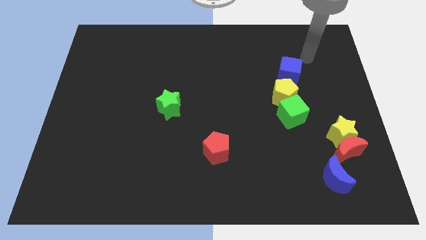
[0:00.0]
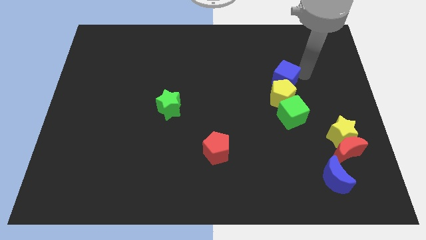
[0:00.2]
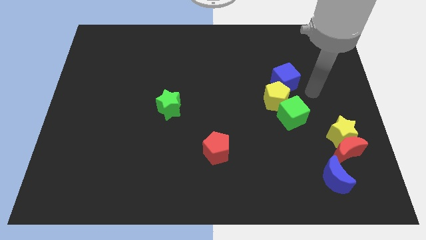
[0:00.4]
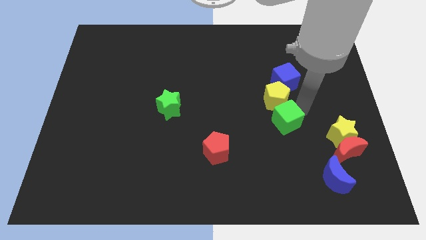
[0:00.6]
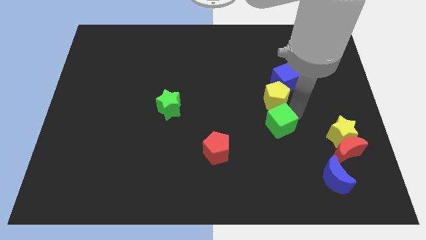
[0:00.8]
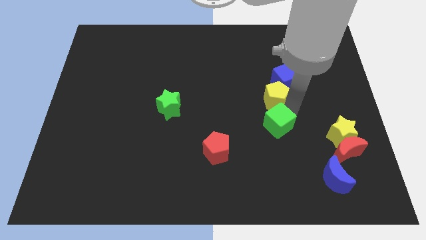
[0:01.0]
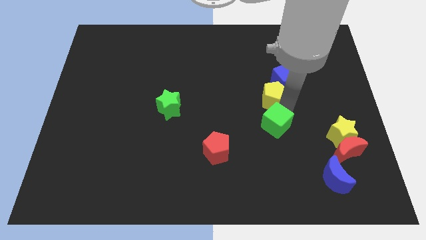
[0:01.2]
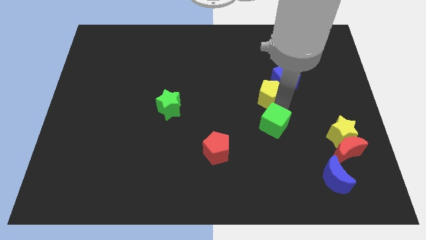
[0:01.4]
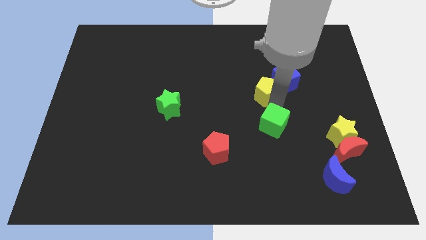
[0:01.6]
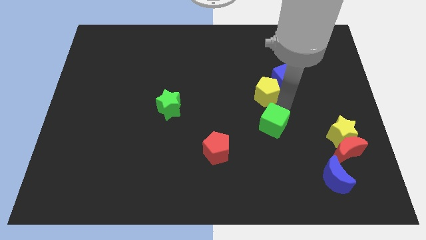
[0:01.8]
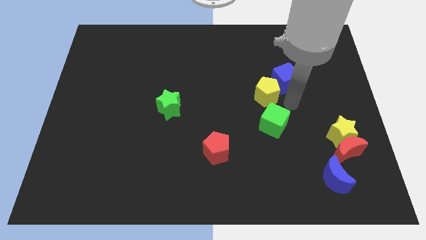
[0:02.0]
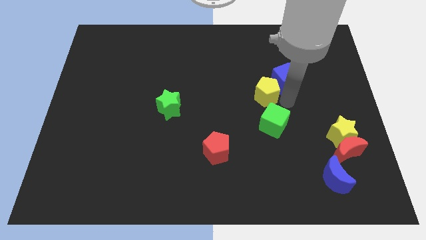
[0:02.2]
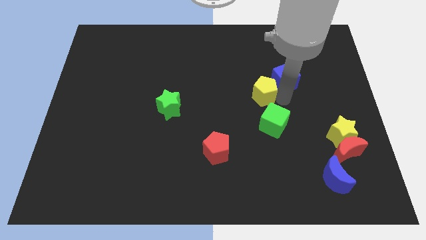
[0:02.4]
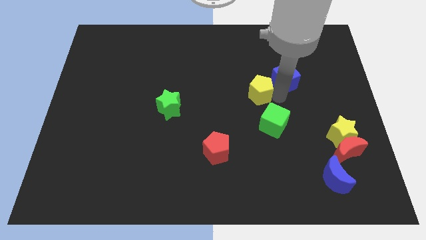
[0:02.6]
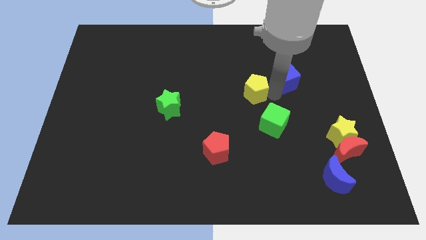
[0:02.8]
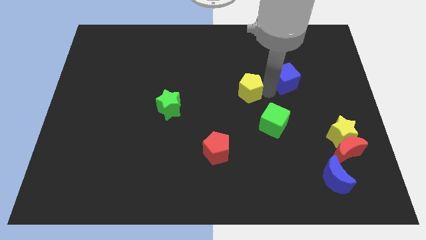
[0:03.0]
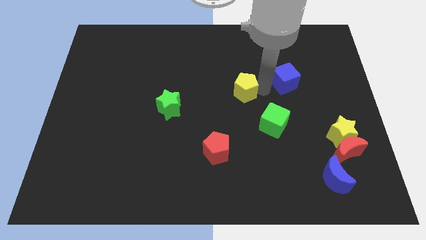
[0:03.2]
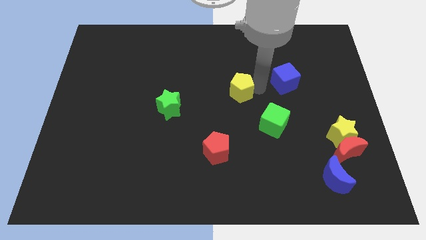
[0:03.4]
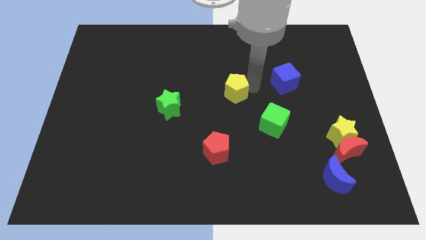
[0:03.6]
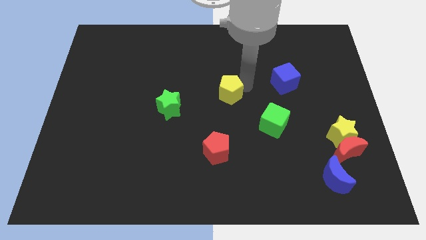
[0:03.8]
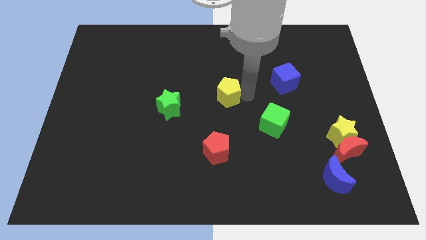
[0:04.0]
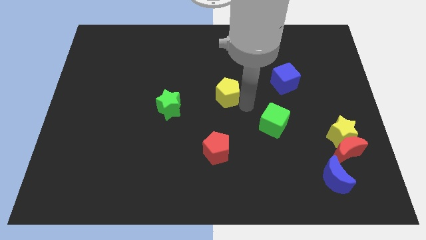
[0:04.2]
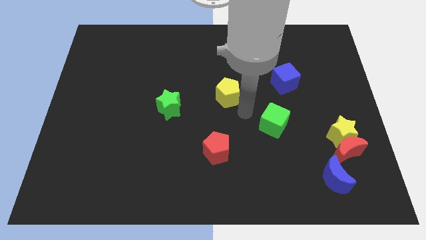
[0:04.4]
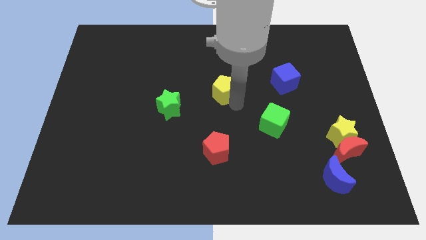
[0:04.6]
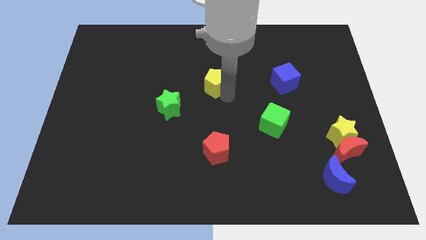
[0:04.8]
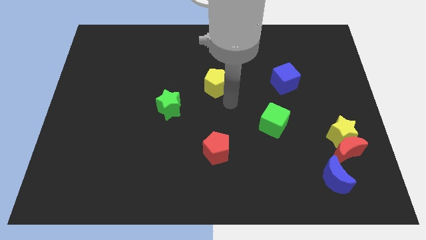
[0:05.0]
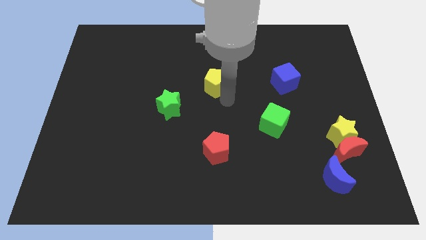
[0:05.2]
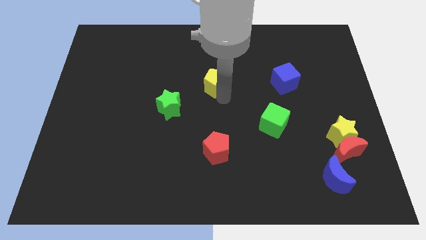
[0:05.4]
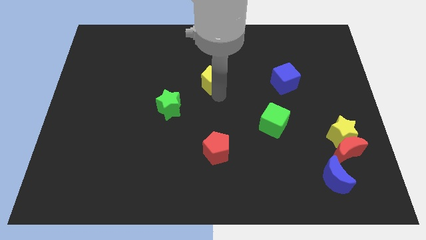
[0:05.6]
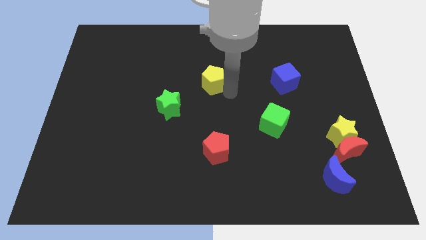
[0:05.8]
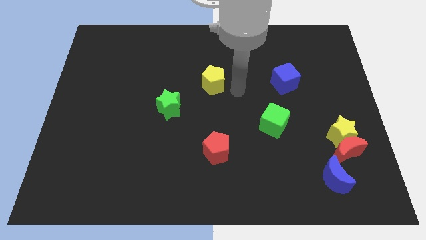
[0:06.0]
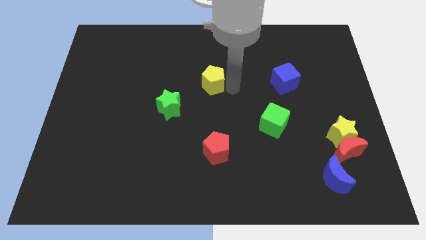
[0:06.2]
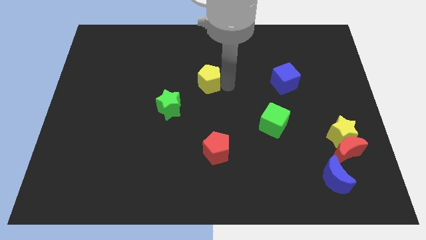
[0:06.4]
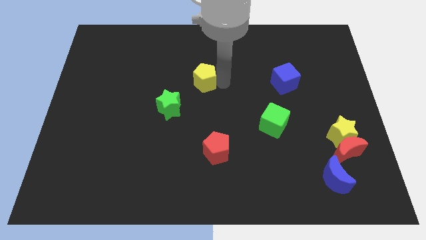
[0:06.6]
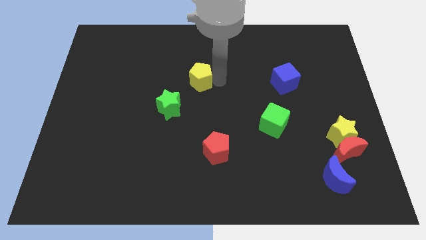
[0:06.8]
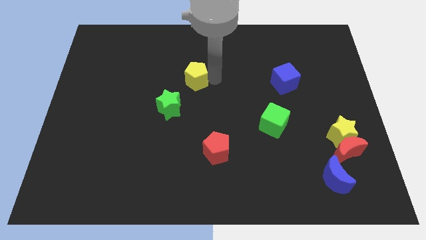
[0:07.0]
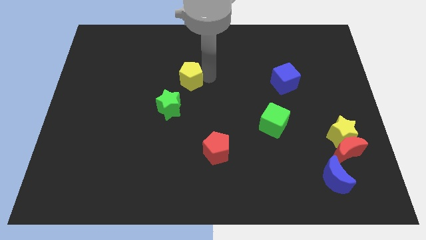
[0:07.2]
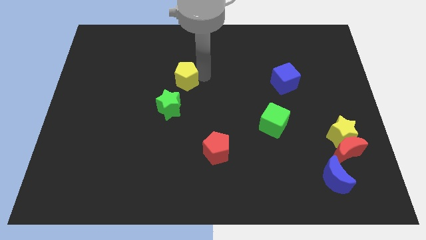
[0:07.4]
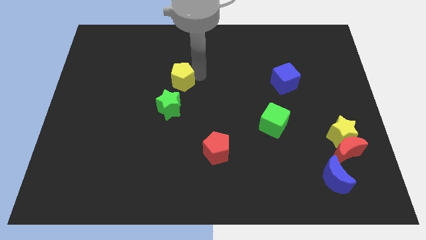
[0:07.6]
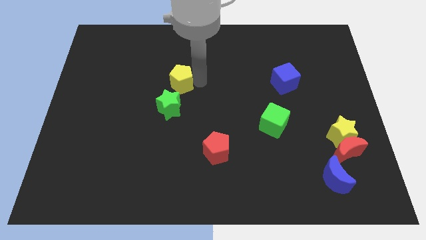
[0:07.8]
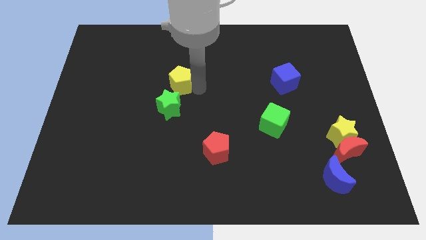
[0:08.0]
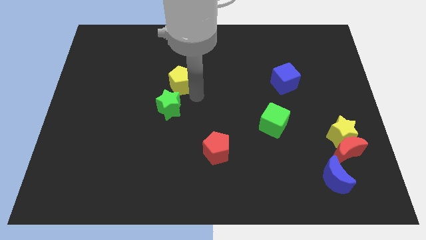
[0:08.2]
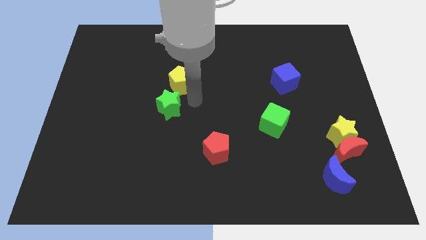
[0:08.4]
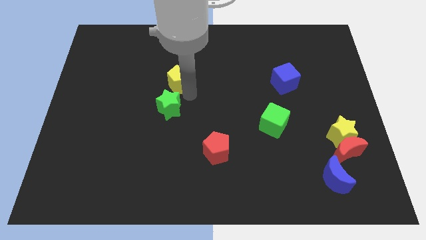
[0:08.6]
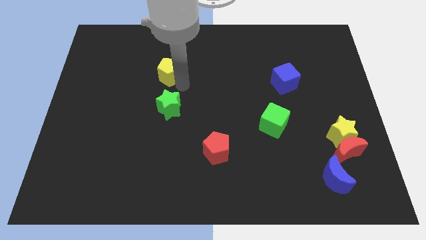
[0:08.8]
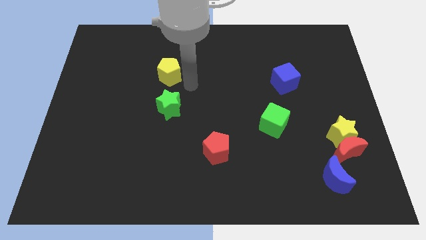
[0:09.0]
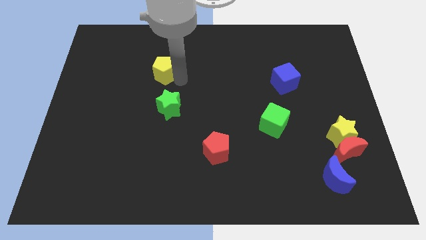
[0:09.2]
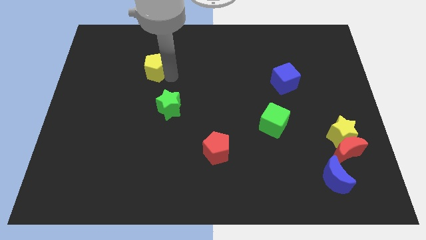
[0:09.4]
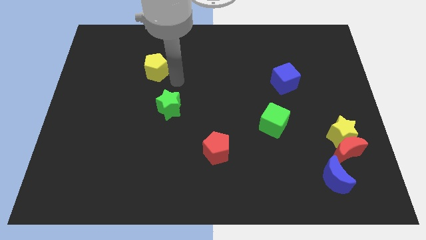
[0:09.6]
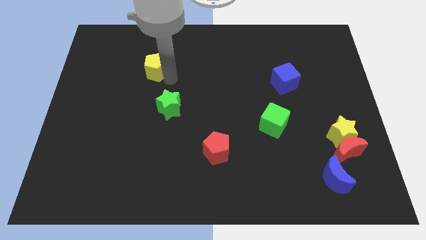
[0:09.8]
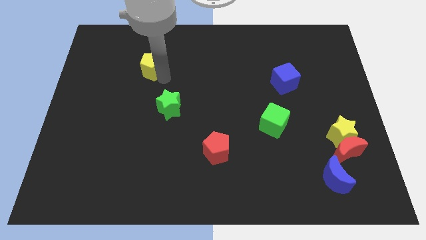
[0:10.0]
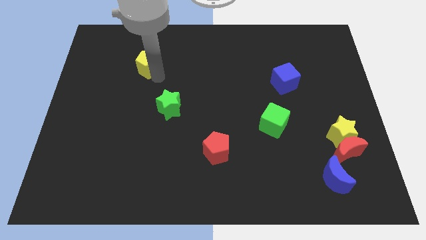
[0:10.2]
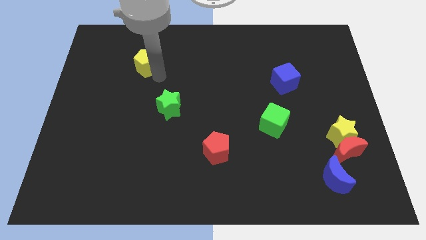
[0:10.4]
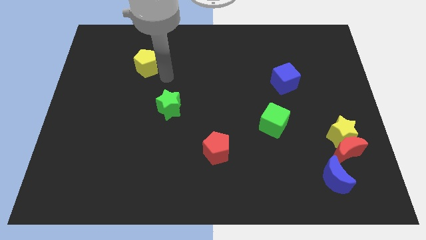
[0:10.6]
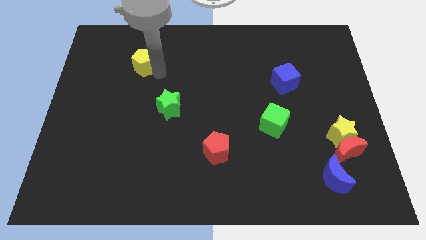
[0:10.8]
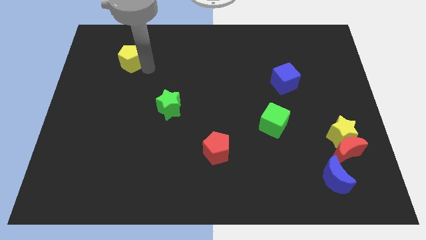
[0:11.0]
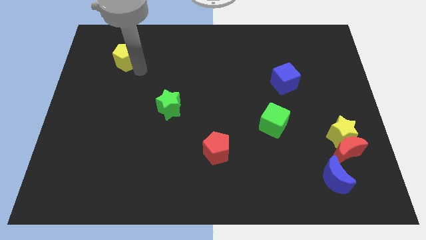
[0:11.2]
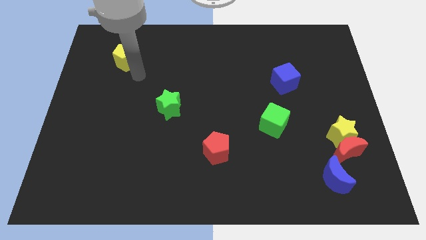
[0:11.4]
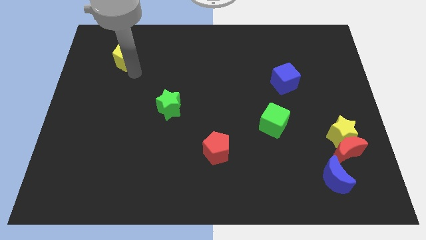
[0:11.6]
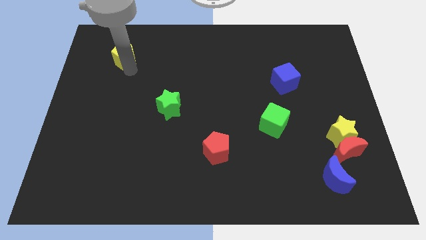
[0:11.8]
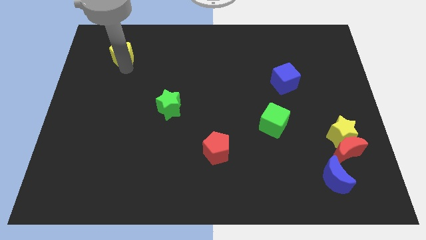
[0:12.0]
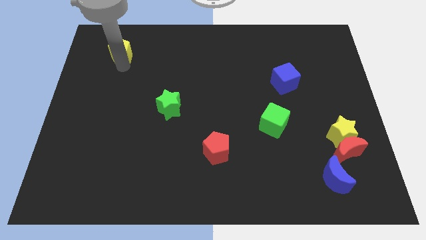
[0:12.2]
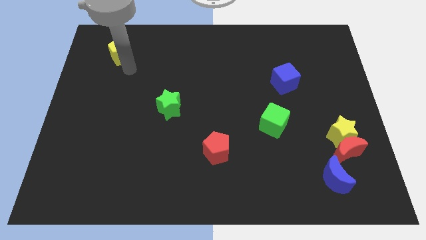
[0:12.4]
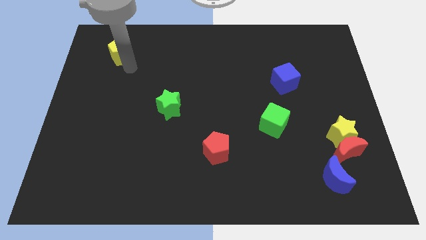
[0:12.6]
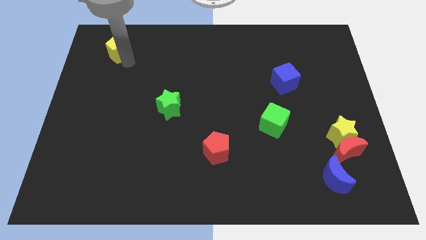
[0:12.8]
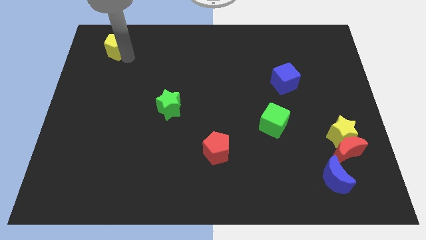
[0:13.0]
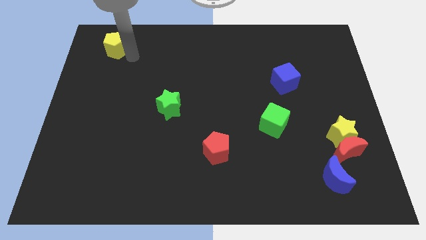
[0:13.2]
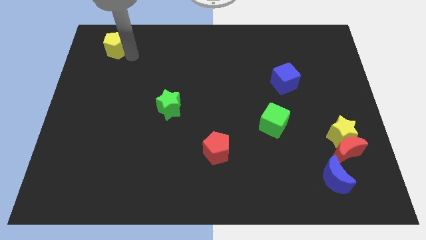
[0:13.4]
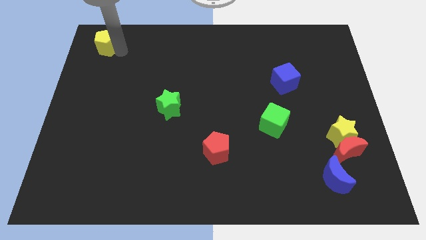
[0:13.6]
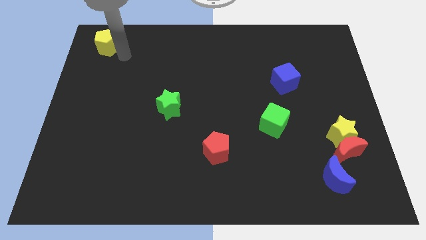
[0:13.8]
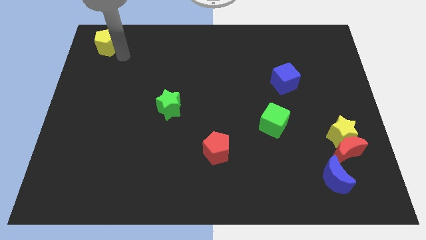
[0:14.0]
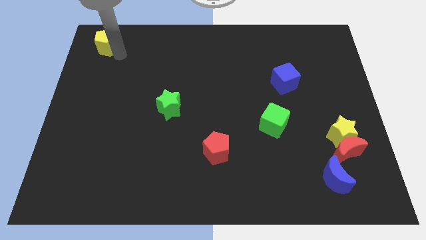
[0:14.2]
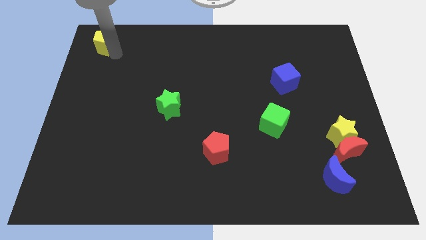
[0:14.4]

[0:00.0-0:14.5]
push the yellow pentagon to the upper left corner
